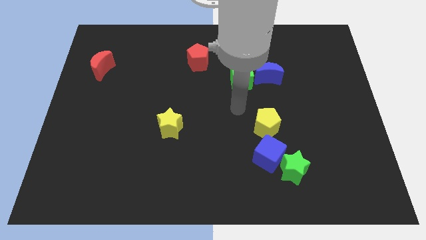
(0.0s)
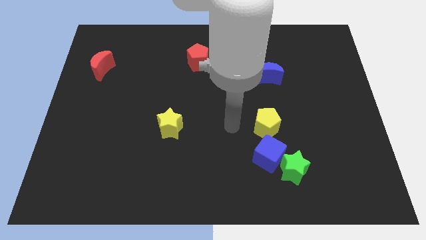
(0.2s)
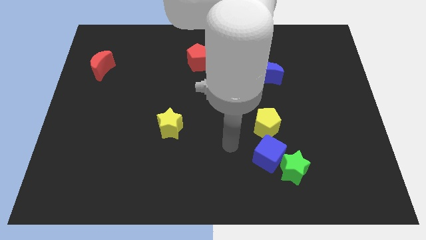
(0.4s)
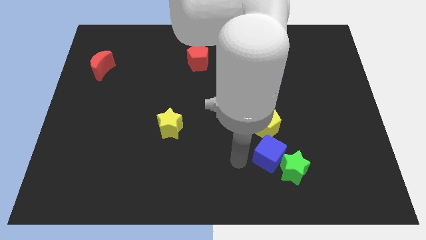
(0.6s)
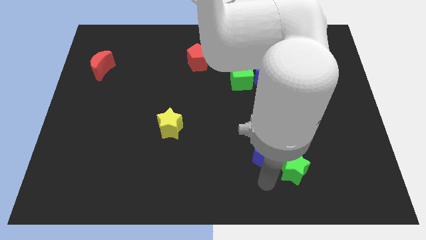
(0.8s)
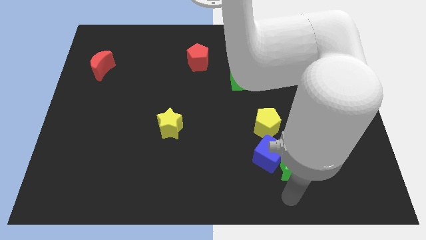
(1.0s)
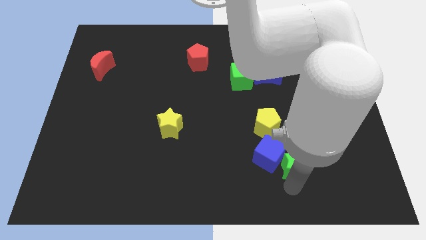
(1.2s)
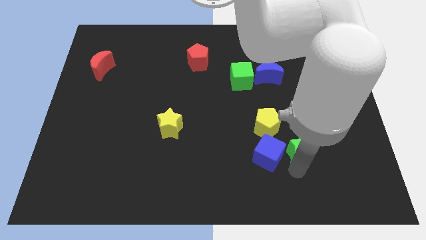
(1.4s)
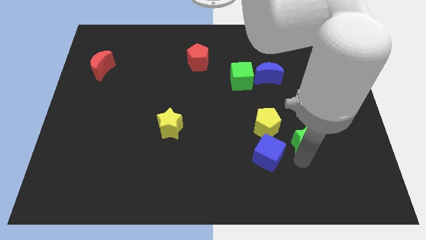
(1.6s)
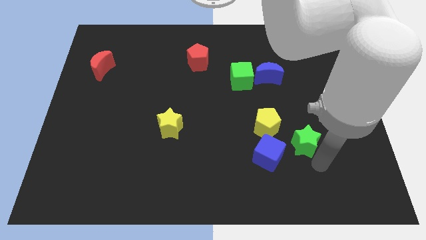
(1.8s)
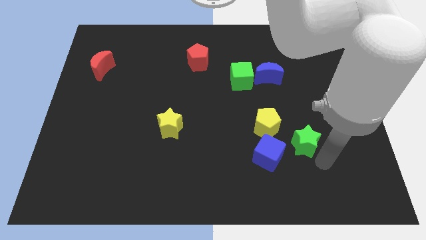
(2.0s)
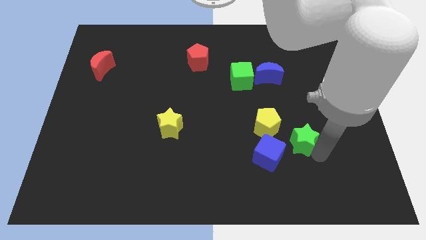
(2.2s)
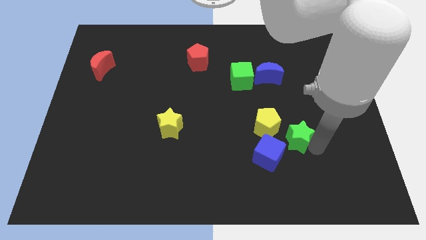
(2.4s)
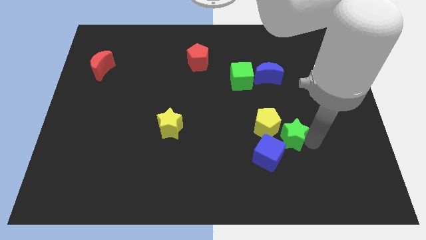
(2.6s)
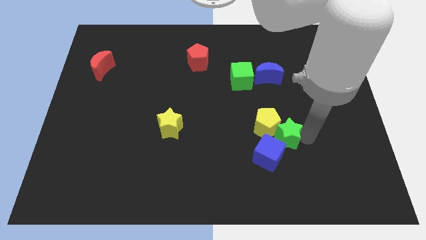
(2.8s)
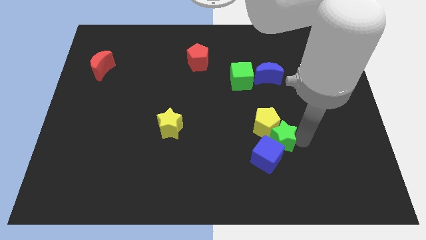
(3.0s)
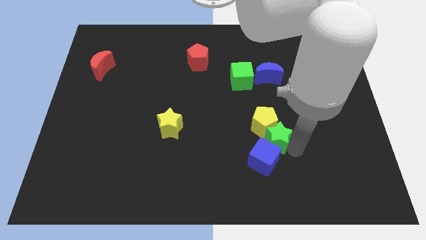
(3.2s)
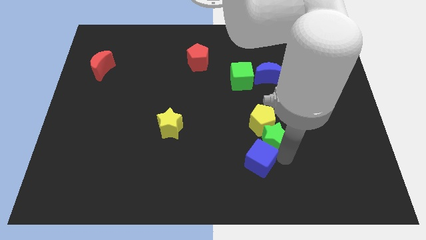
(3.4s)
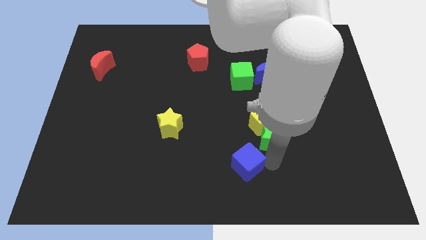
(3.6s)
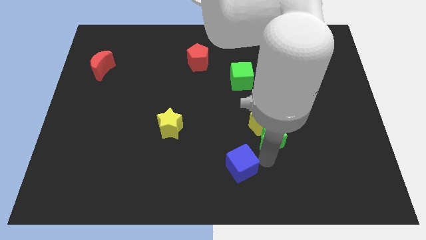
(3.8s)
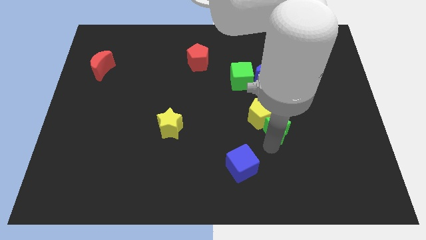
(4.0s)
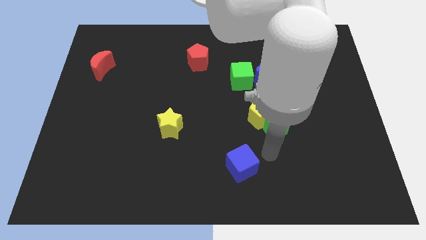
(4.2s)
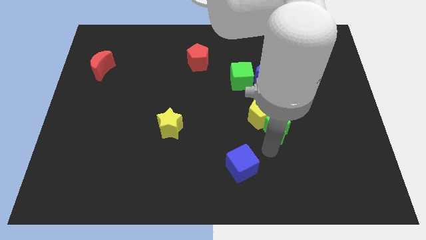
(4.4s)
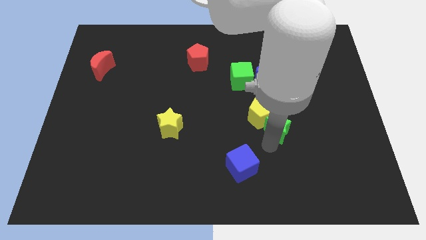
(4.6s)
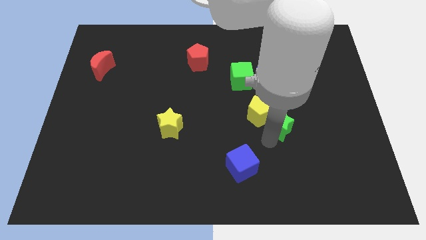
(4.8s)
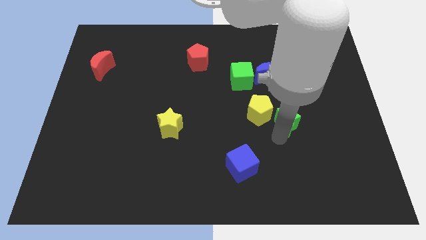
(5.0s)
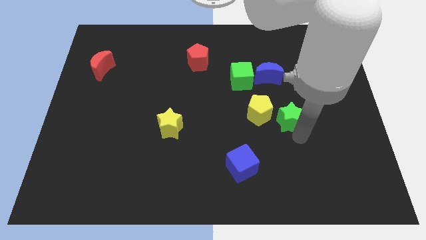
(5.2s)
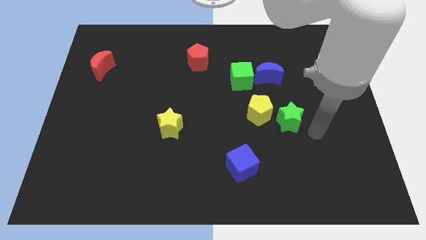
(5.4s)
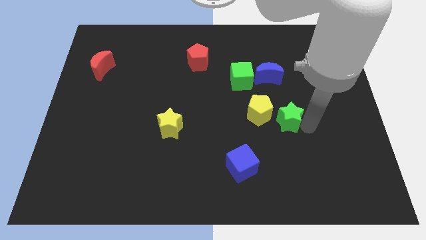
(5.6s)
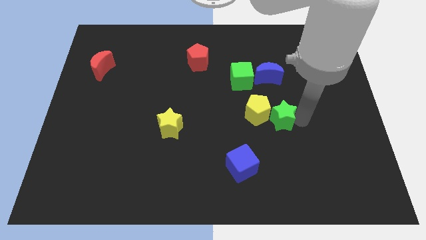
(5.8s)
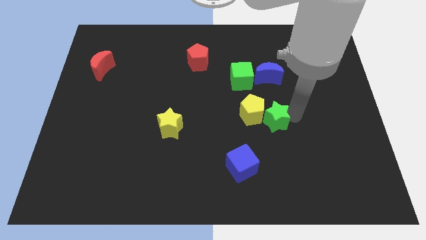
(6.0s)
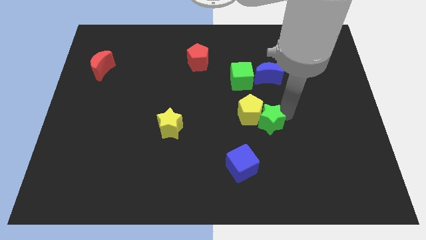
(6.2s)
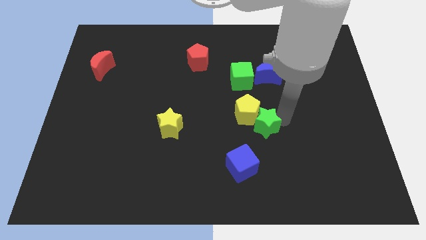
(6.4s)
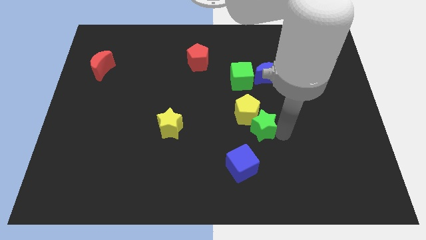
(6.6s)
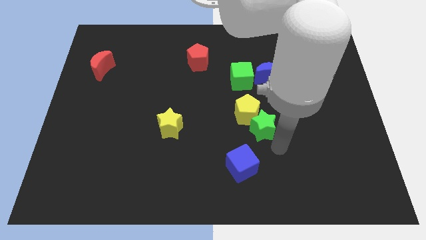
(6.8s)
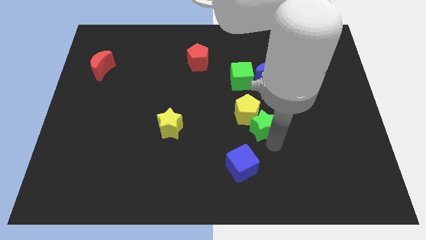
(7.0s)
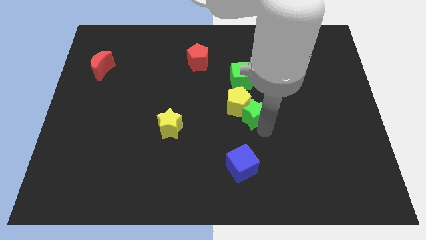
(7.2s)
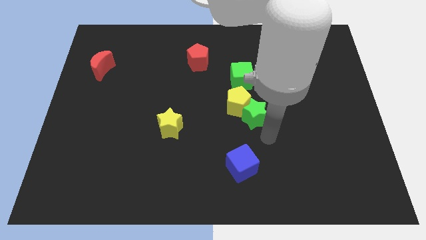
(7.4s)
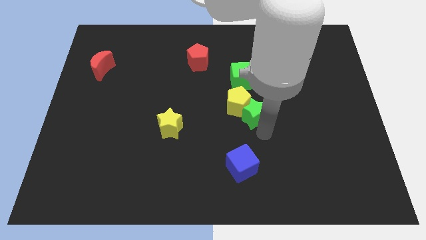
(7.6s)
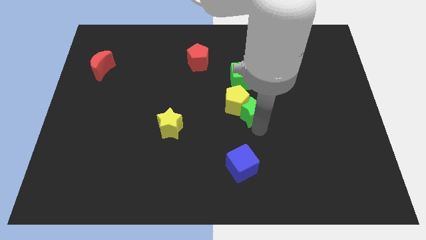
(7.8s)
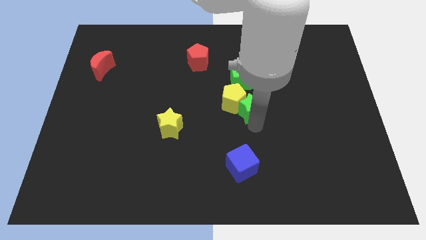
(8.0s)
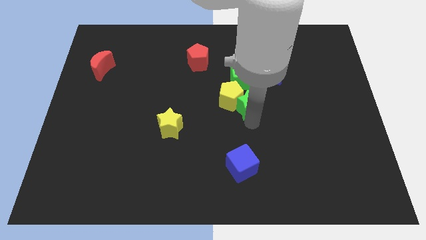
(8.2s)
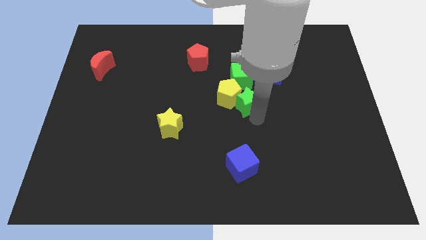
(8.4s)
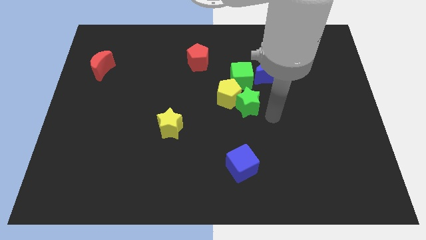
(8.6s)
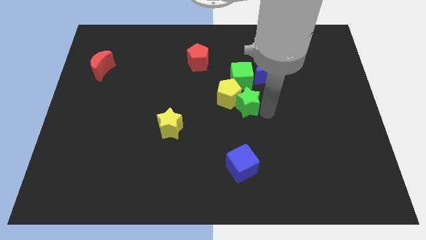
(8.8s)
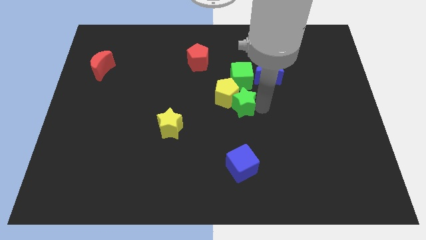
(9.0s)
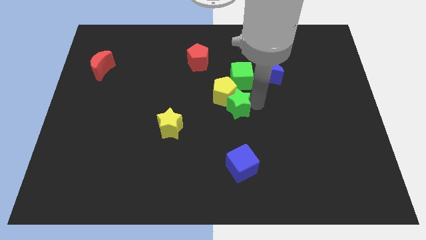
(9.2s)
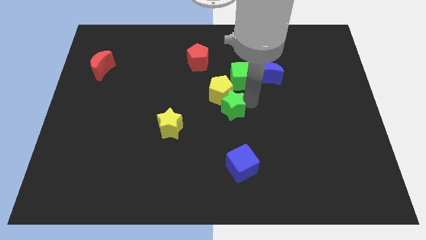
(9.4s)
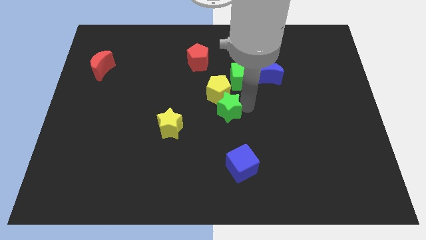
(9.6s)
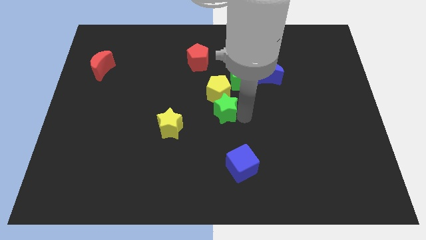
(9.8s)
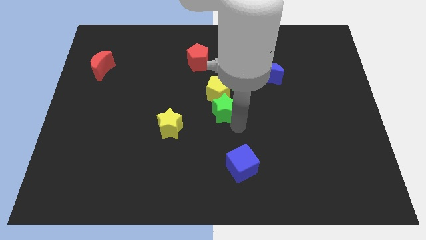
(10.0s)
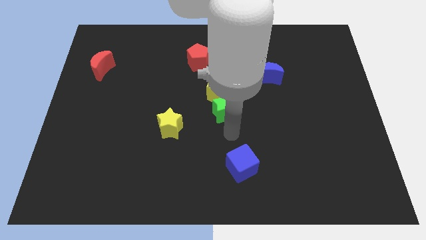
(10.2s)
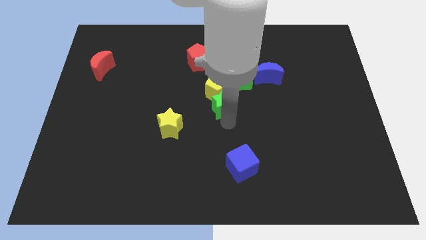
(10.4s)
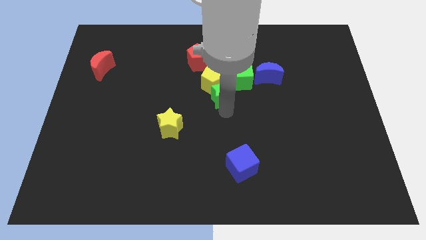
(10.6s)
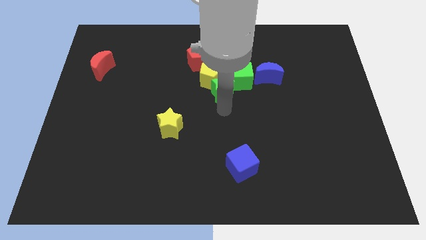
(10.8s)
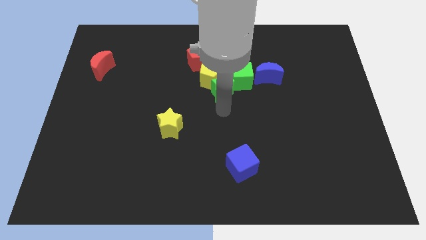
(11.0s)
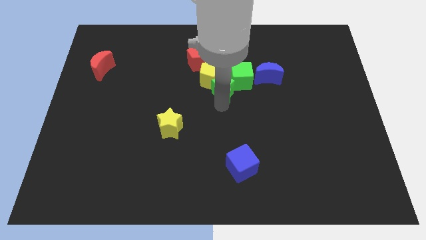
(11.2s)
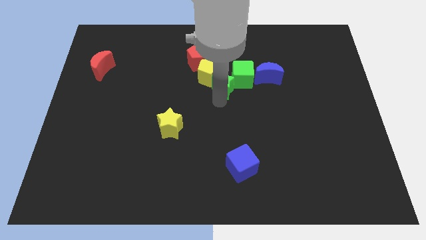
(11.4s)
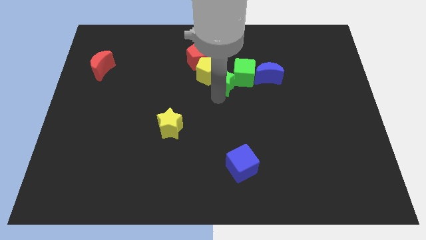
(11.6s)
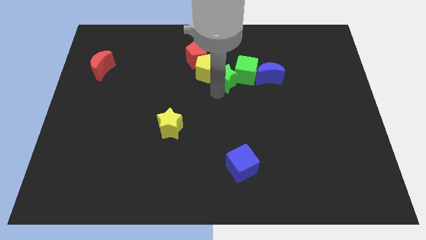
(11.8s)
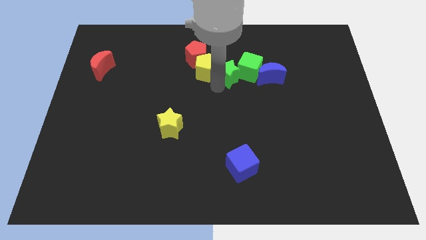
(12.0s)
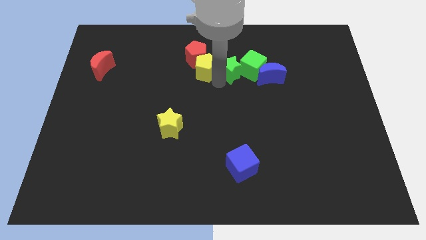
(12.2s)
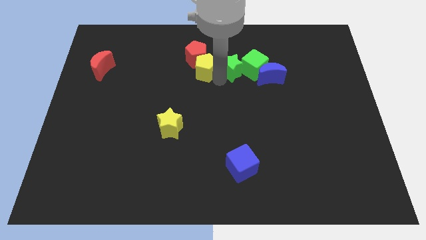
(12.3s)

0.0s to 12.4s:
slide the green star to the right of the red pentagon

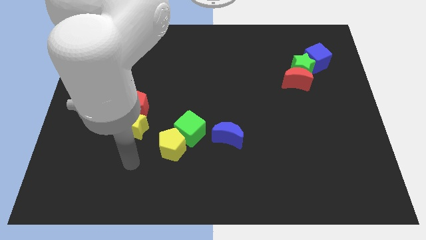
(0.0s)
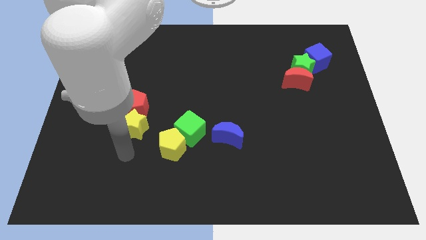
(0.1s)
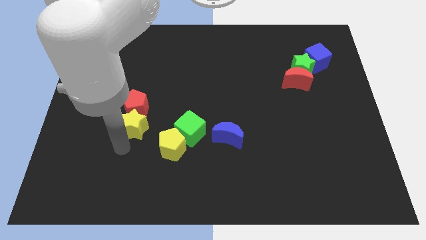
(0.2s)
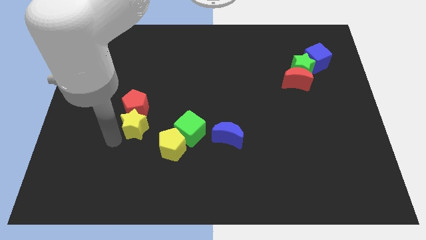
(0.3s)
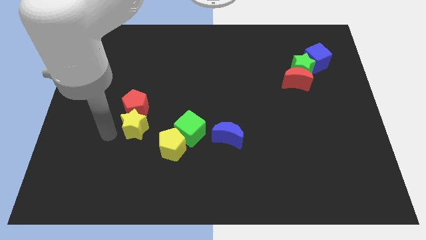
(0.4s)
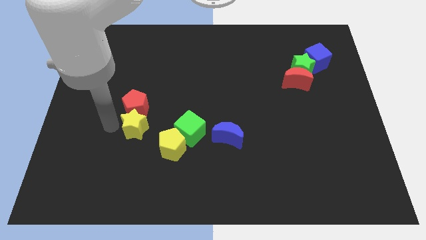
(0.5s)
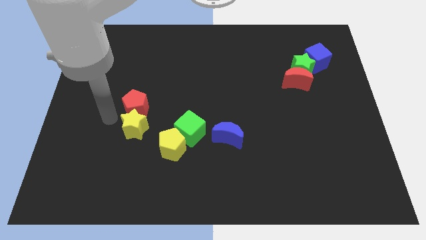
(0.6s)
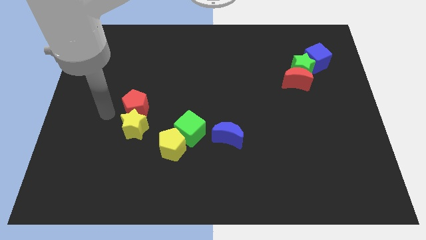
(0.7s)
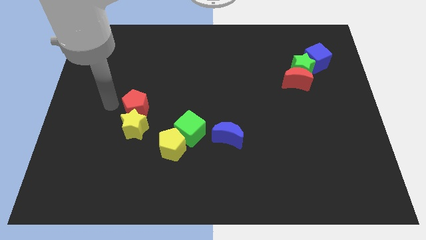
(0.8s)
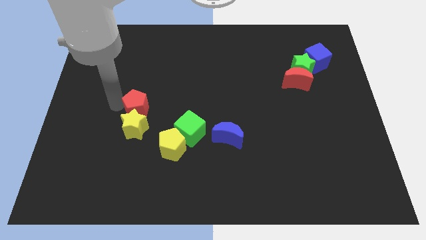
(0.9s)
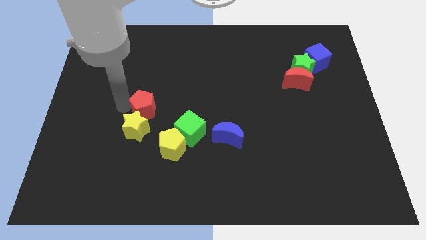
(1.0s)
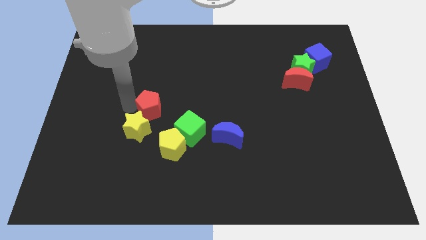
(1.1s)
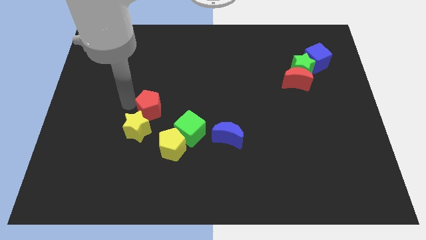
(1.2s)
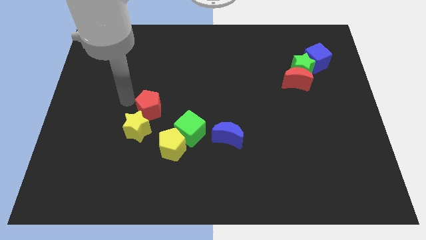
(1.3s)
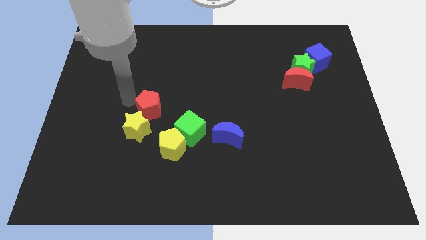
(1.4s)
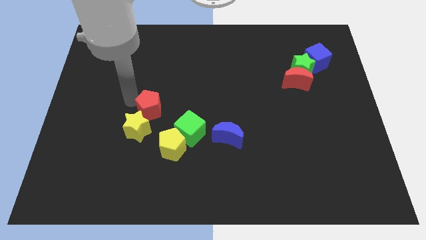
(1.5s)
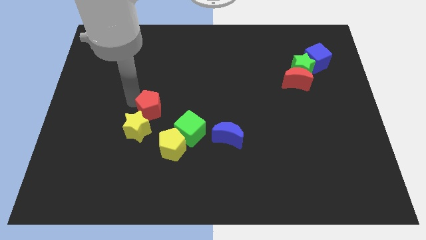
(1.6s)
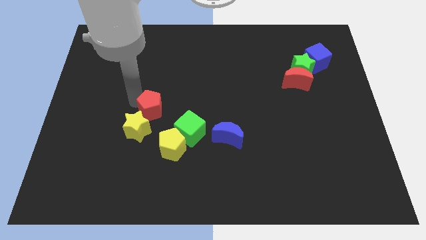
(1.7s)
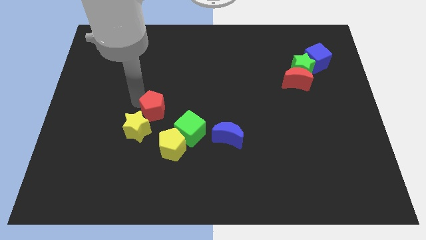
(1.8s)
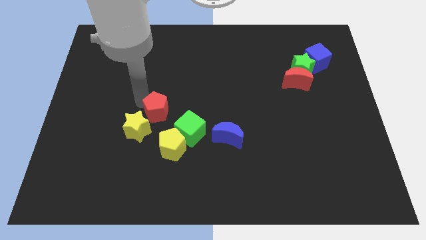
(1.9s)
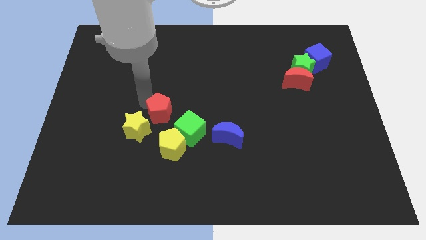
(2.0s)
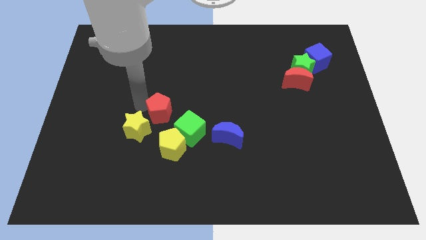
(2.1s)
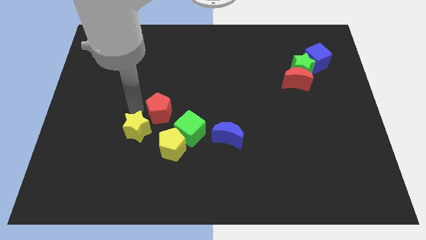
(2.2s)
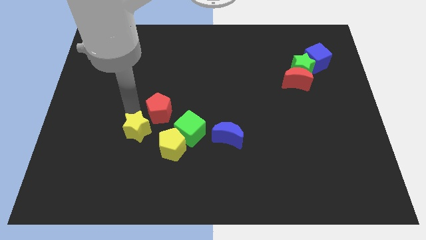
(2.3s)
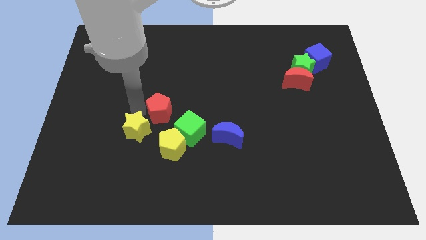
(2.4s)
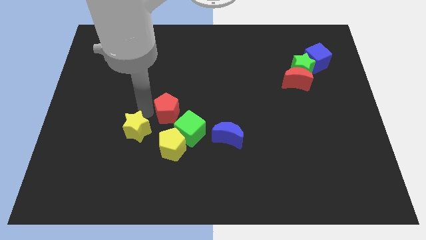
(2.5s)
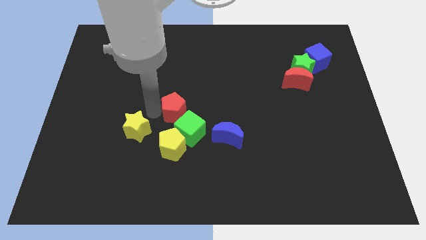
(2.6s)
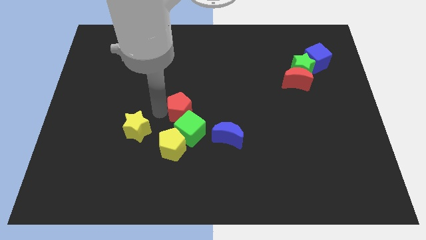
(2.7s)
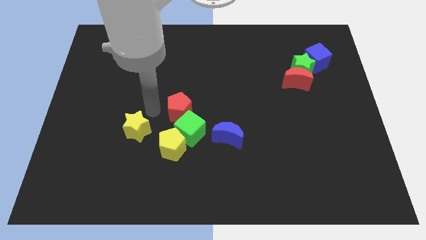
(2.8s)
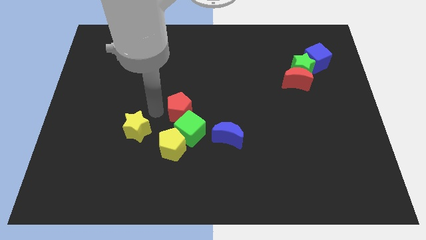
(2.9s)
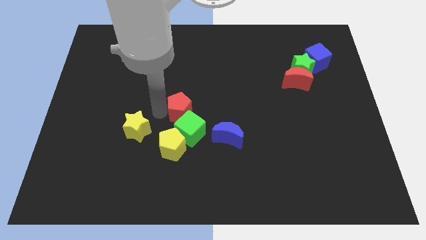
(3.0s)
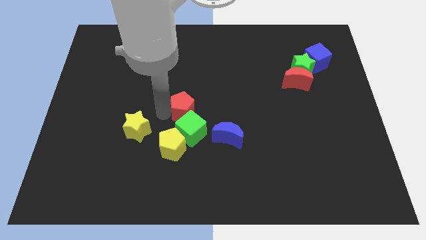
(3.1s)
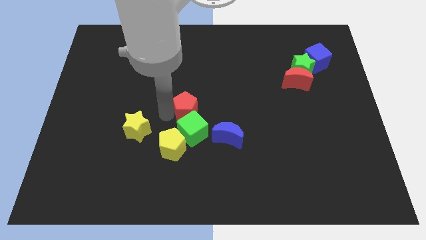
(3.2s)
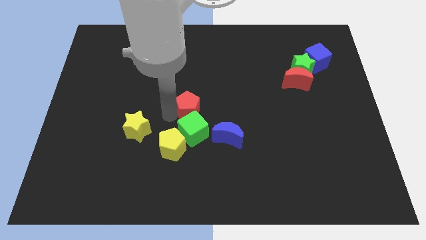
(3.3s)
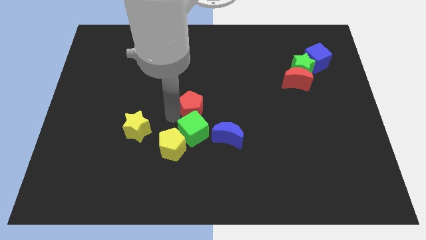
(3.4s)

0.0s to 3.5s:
push the red pentagon diagonally up and to the right of the green cube
